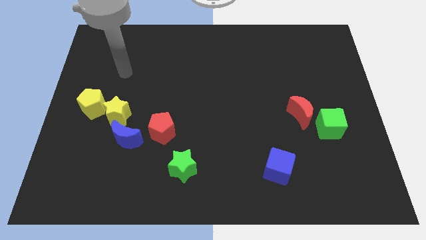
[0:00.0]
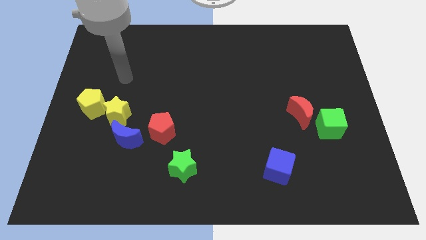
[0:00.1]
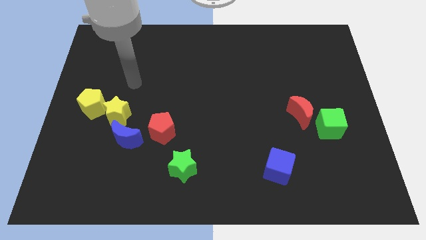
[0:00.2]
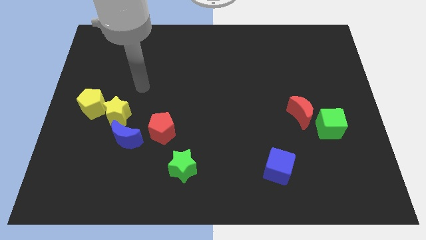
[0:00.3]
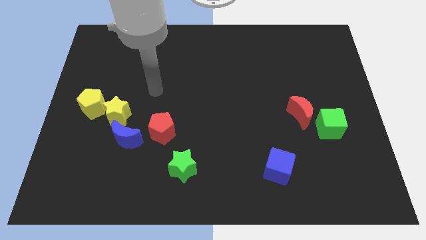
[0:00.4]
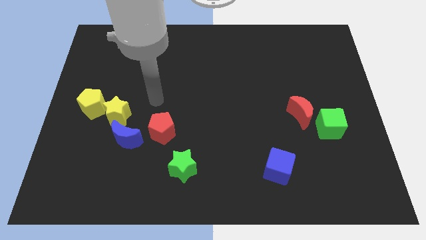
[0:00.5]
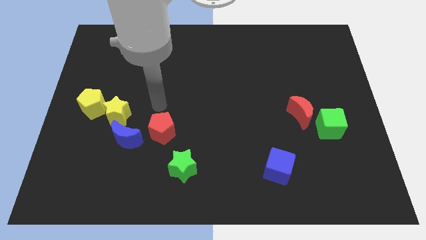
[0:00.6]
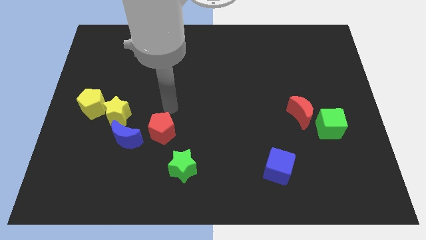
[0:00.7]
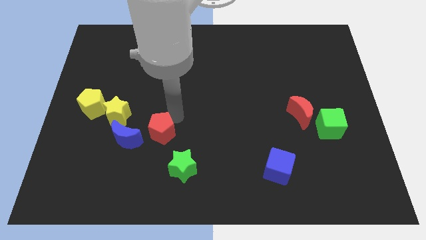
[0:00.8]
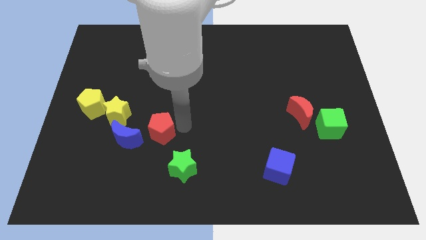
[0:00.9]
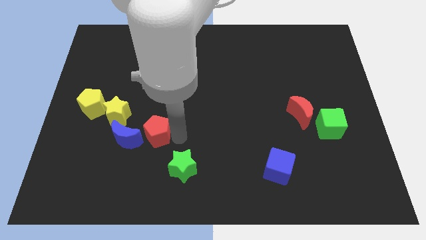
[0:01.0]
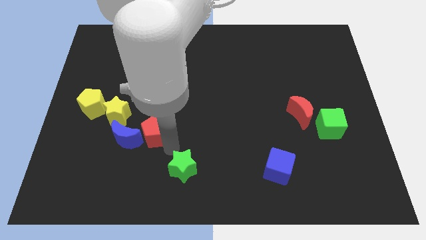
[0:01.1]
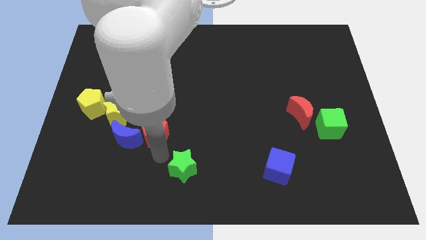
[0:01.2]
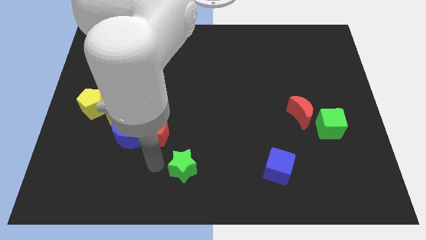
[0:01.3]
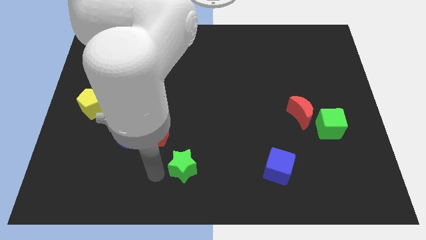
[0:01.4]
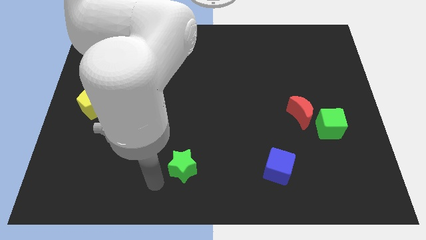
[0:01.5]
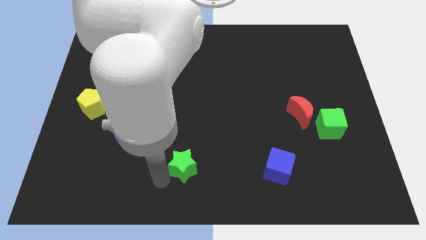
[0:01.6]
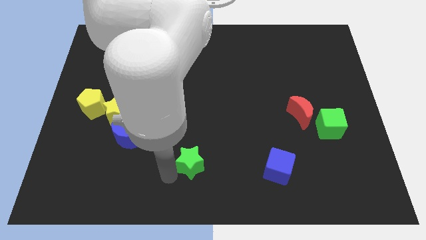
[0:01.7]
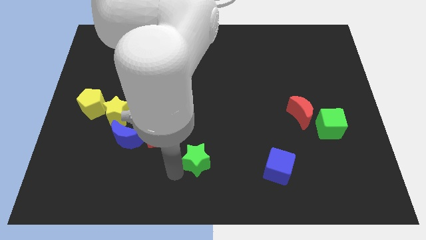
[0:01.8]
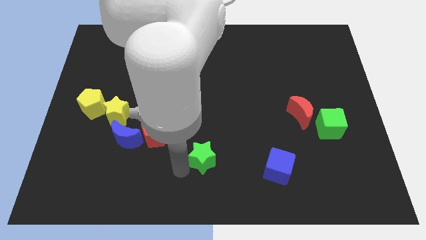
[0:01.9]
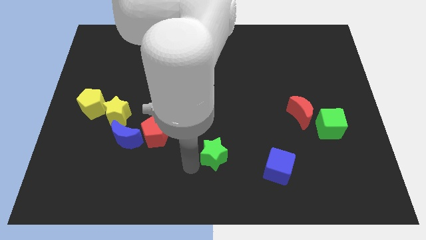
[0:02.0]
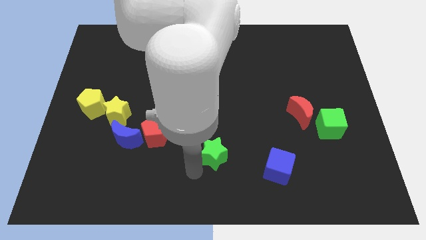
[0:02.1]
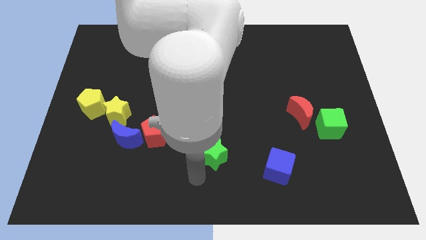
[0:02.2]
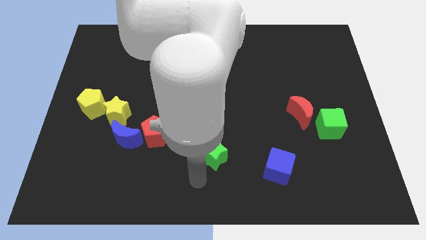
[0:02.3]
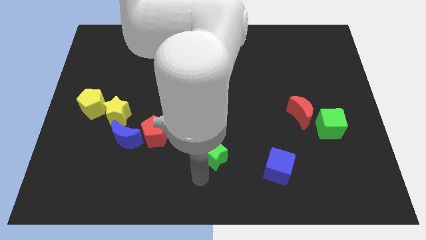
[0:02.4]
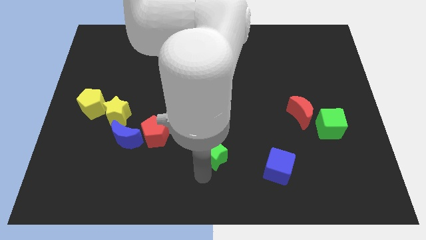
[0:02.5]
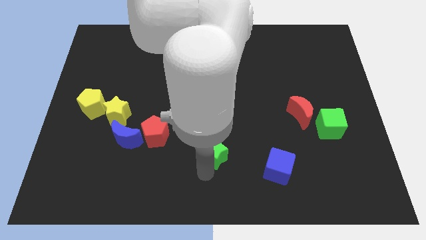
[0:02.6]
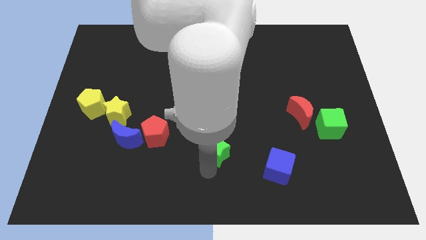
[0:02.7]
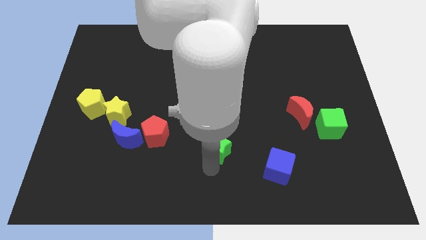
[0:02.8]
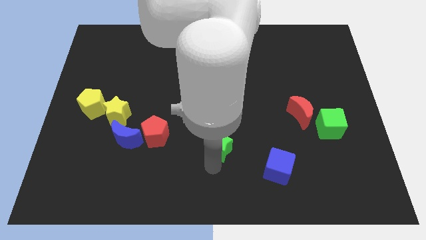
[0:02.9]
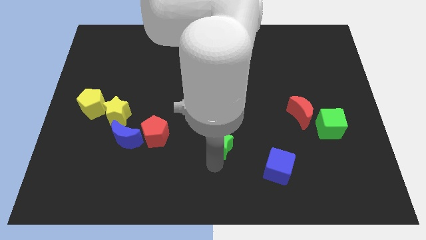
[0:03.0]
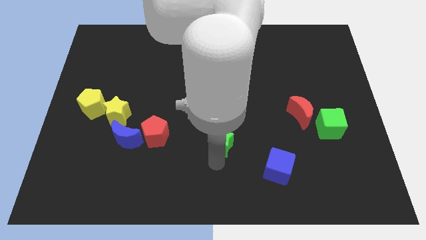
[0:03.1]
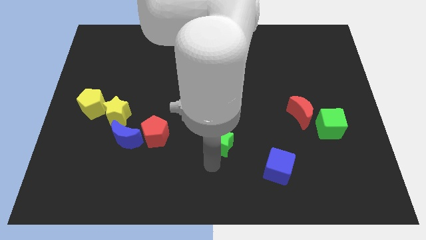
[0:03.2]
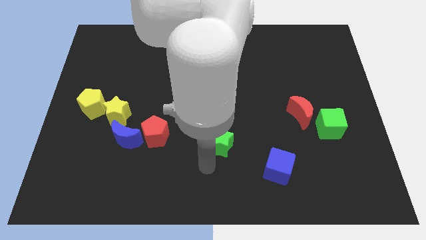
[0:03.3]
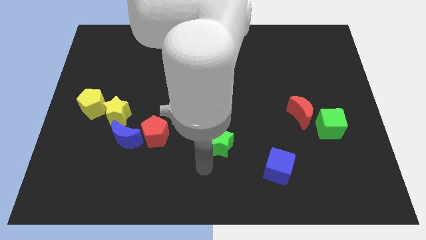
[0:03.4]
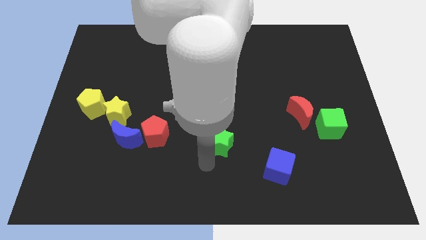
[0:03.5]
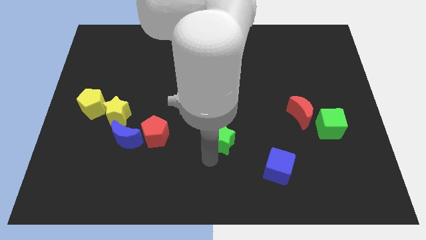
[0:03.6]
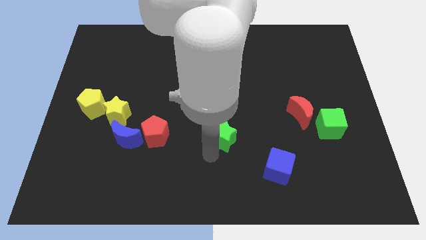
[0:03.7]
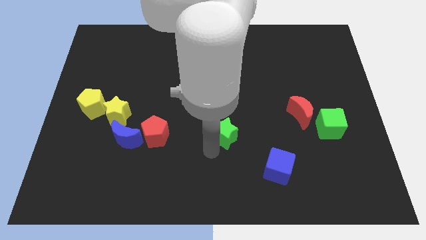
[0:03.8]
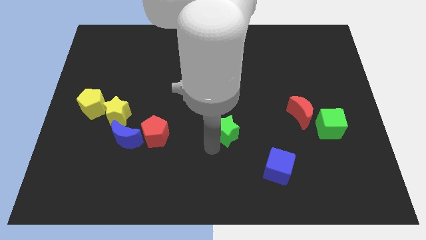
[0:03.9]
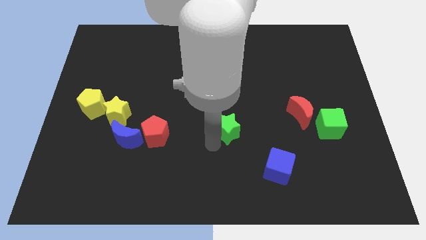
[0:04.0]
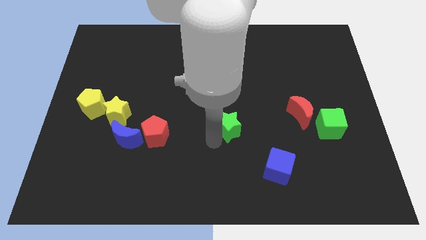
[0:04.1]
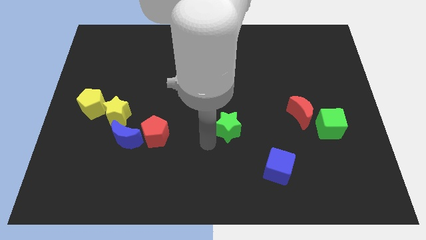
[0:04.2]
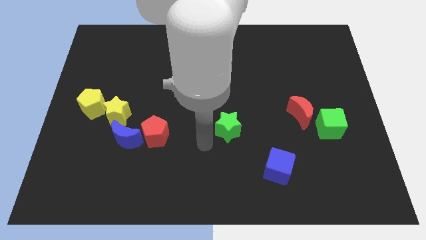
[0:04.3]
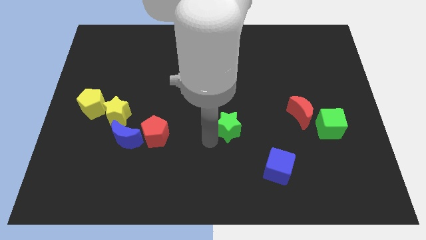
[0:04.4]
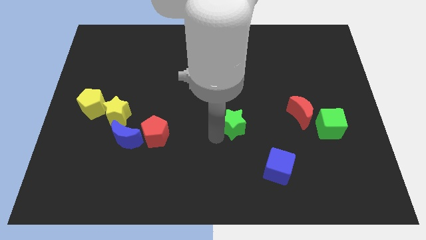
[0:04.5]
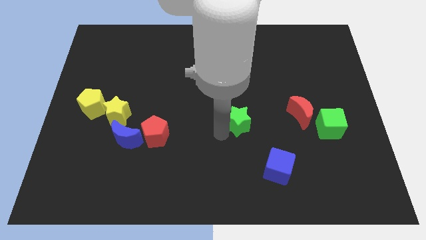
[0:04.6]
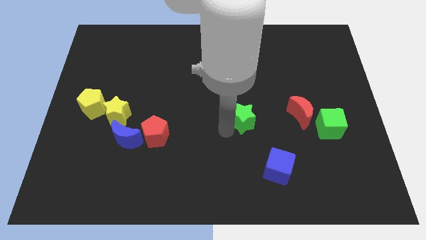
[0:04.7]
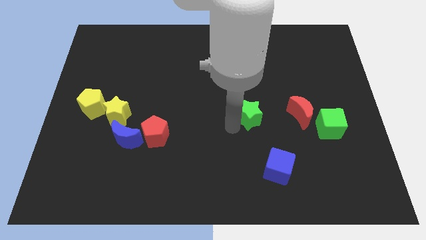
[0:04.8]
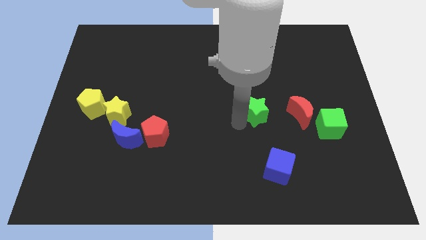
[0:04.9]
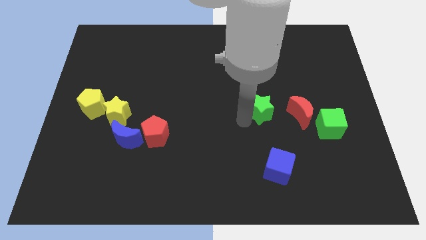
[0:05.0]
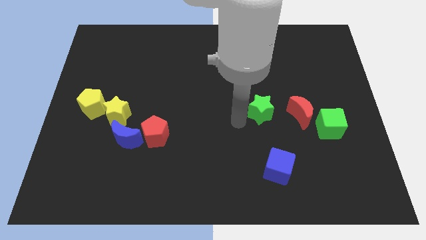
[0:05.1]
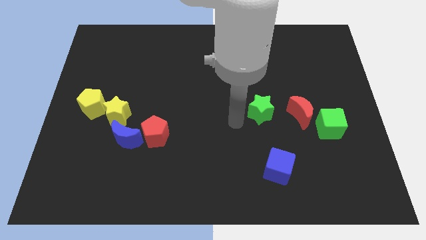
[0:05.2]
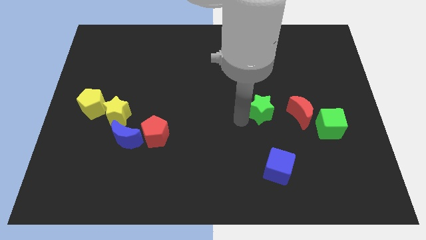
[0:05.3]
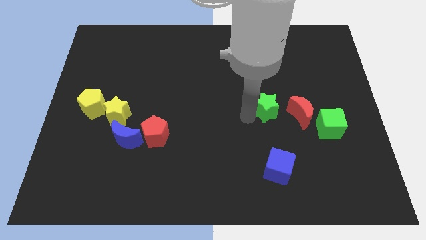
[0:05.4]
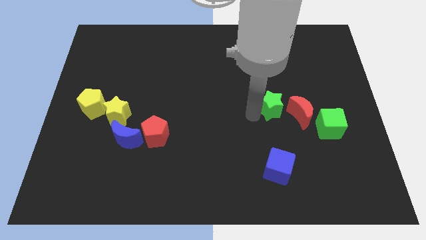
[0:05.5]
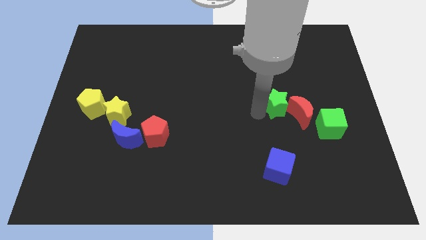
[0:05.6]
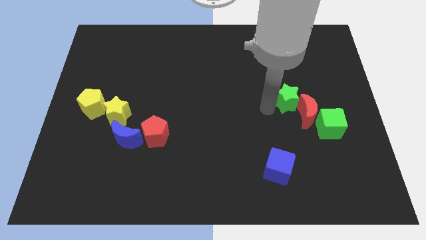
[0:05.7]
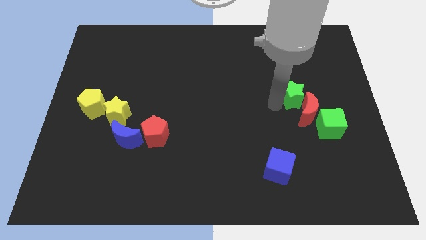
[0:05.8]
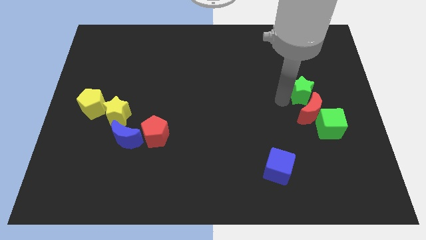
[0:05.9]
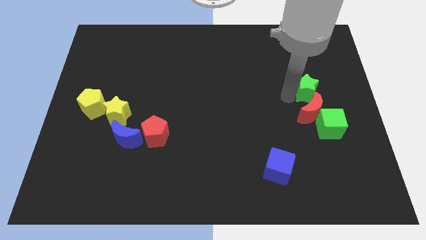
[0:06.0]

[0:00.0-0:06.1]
slide the green star to the top right side of the red moon

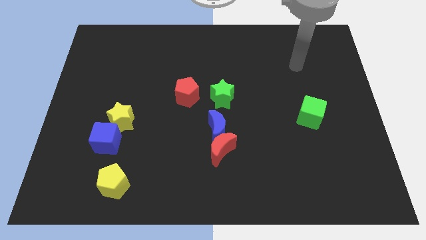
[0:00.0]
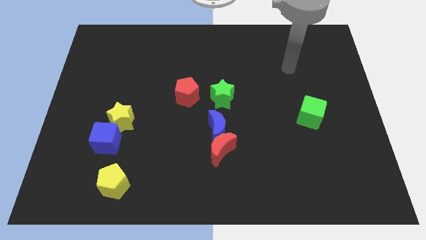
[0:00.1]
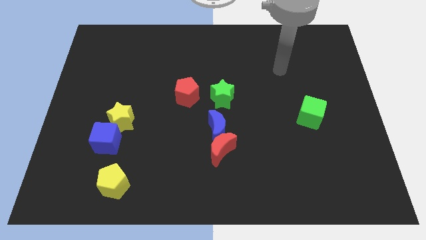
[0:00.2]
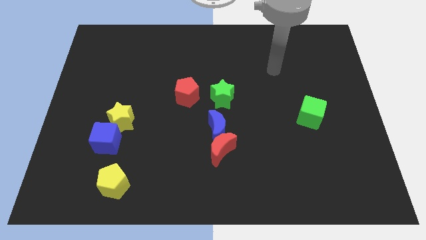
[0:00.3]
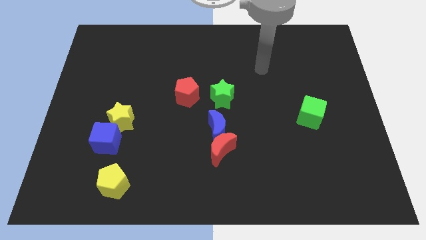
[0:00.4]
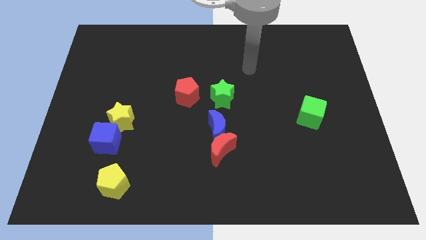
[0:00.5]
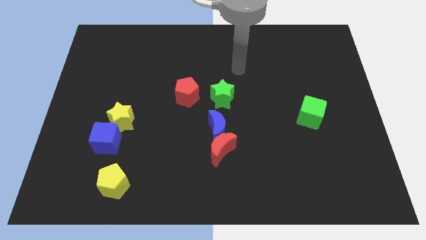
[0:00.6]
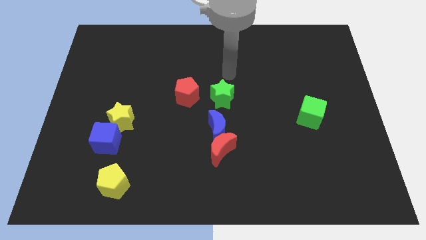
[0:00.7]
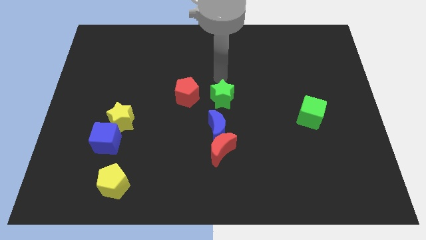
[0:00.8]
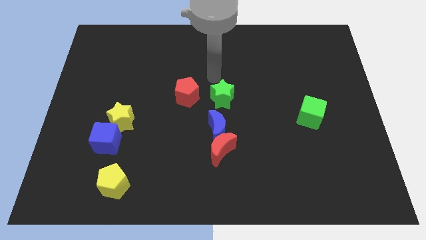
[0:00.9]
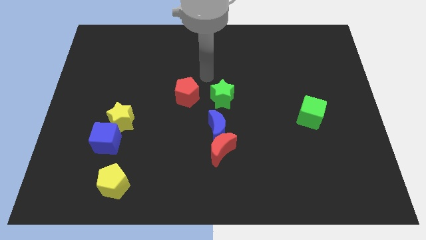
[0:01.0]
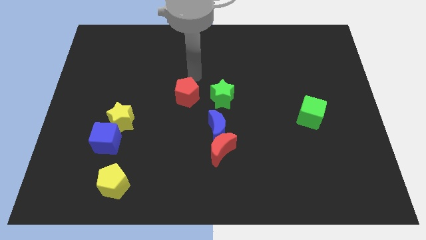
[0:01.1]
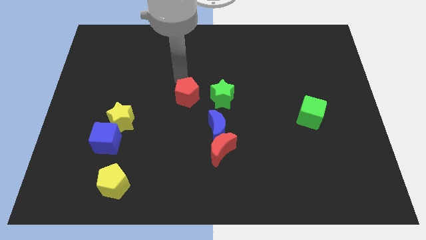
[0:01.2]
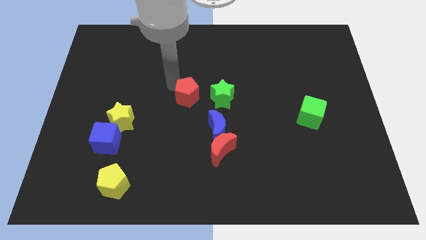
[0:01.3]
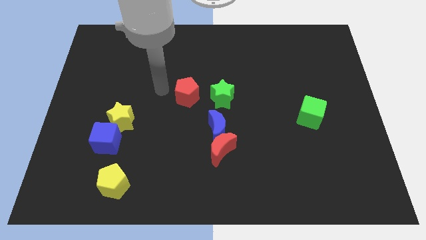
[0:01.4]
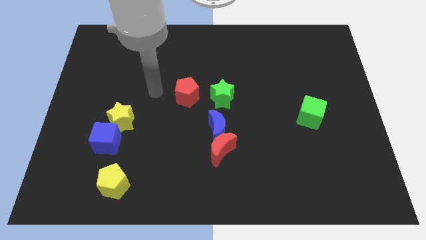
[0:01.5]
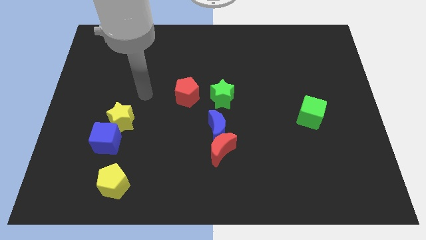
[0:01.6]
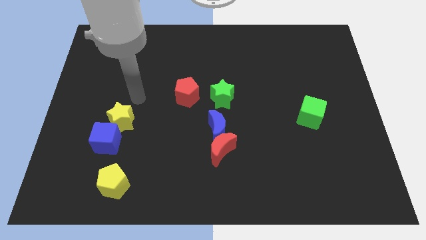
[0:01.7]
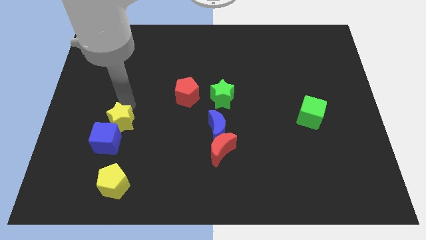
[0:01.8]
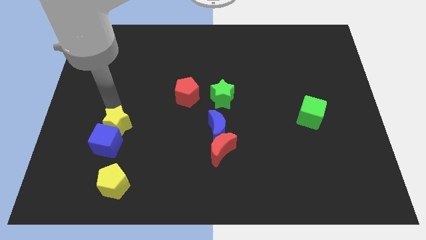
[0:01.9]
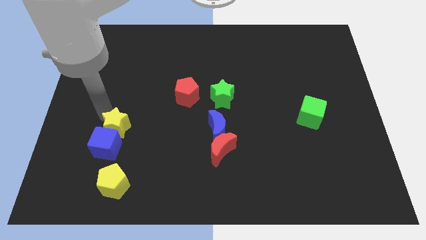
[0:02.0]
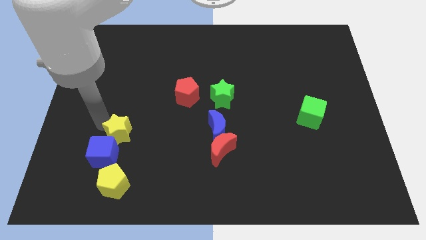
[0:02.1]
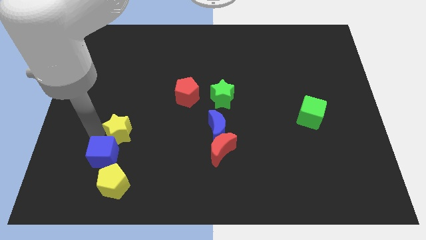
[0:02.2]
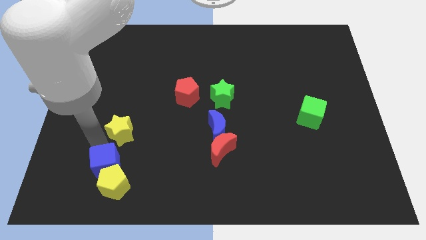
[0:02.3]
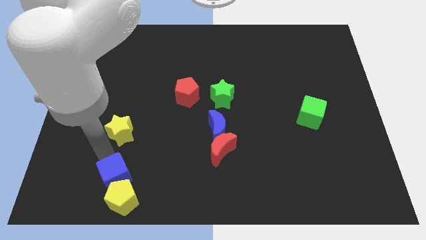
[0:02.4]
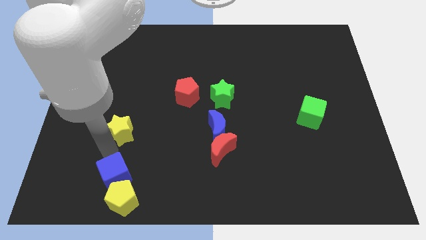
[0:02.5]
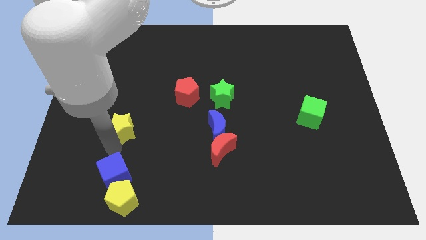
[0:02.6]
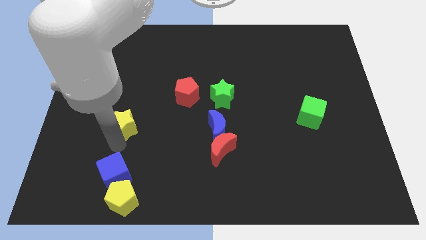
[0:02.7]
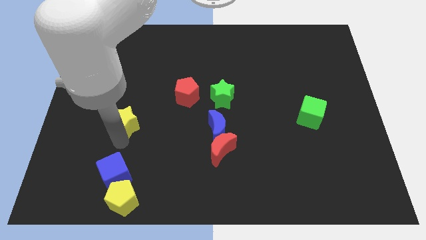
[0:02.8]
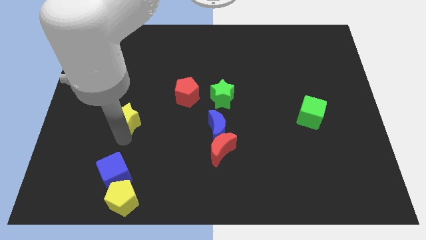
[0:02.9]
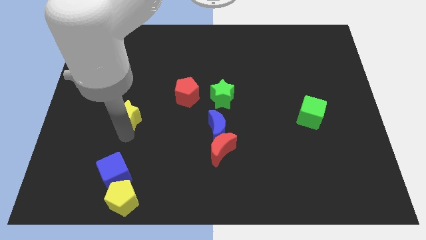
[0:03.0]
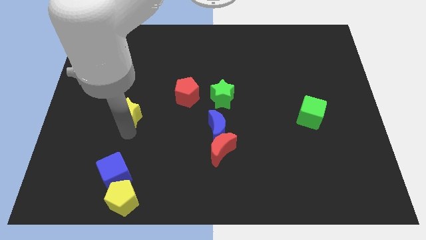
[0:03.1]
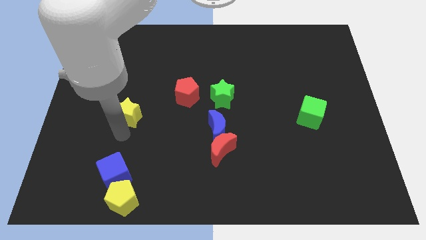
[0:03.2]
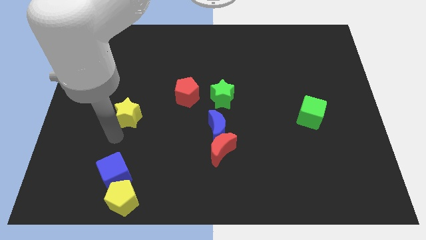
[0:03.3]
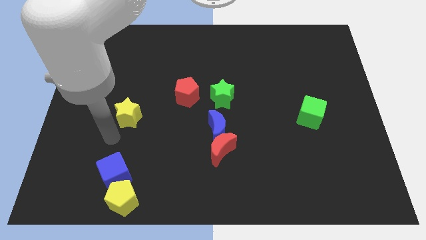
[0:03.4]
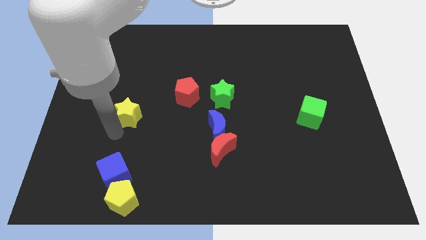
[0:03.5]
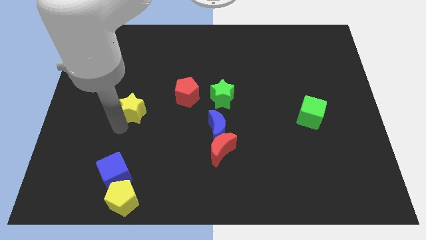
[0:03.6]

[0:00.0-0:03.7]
push the yellow star left of the red pentagon
